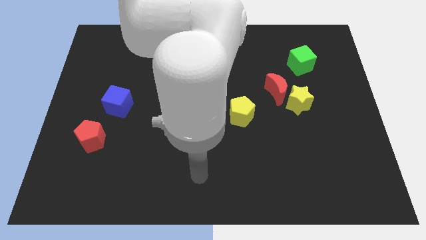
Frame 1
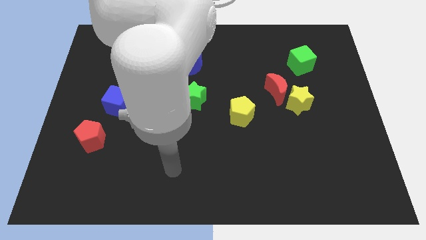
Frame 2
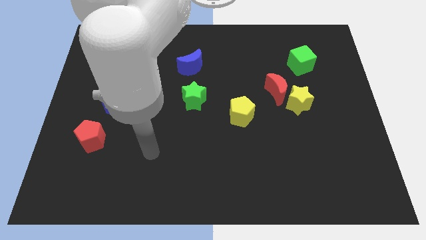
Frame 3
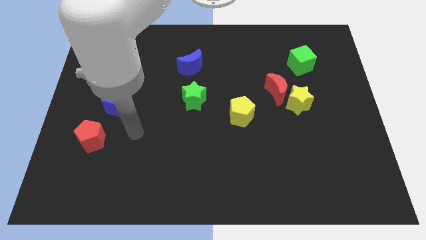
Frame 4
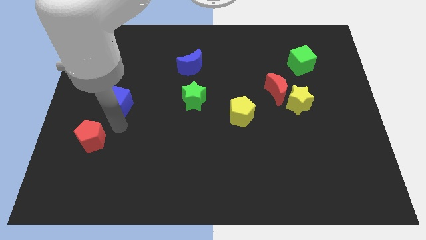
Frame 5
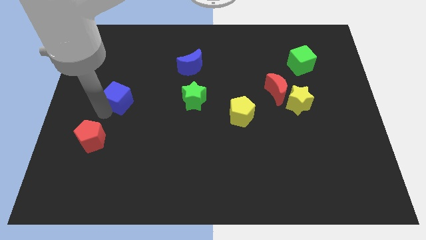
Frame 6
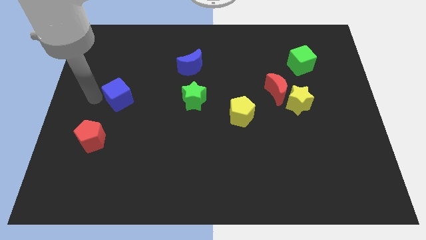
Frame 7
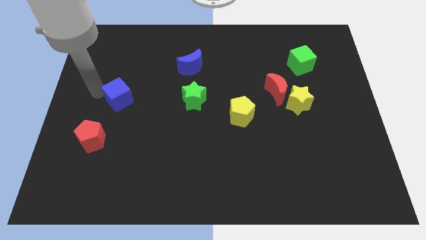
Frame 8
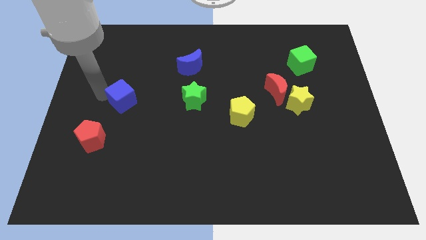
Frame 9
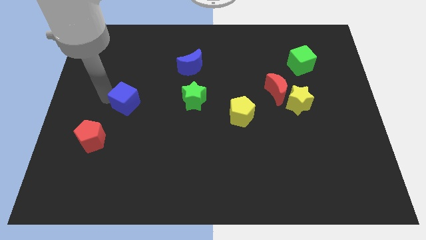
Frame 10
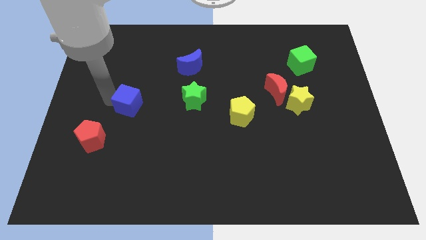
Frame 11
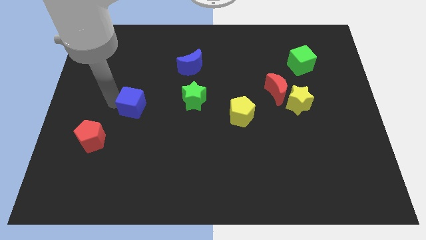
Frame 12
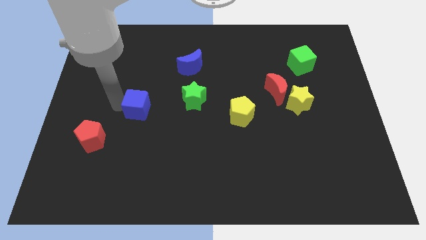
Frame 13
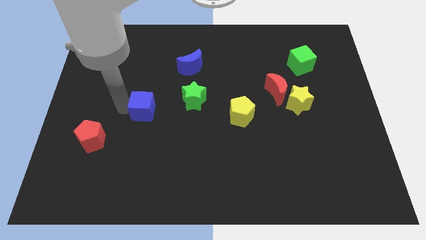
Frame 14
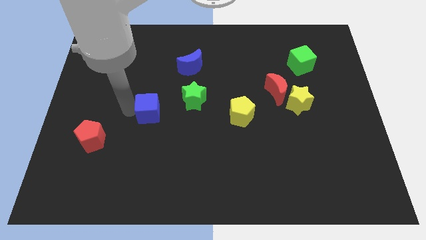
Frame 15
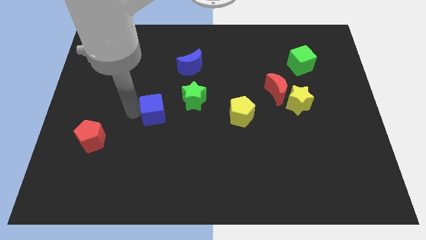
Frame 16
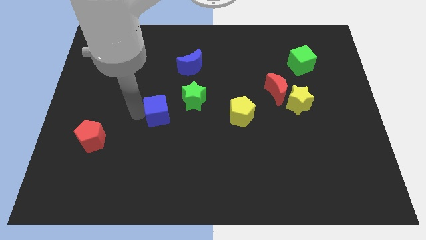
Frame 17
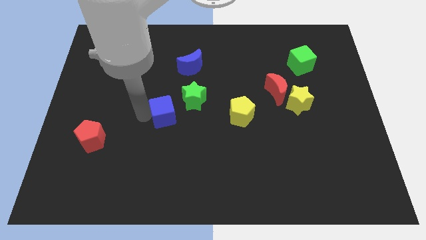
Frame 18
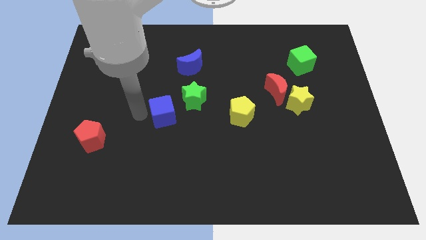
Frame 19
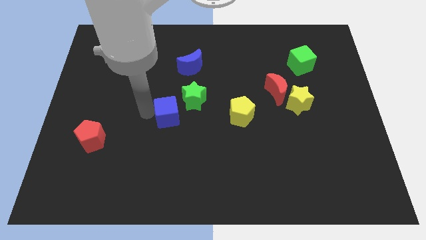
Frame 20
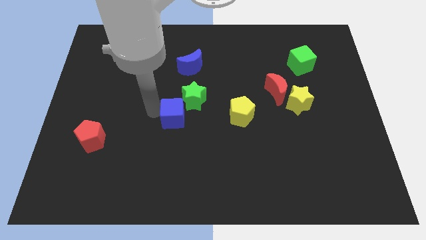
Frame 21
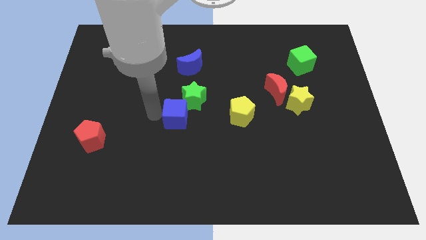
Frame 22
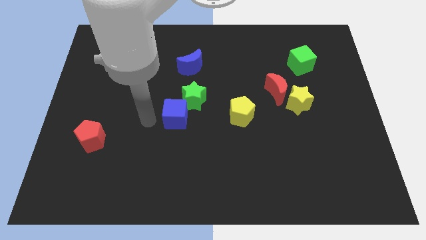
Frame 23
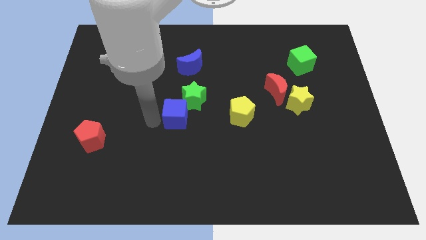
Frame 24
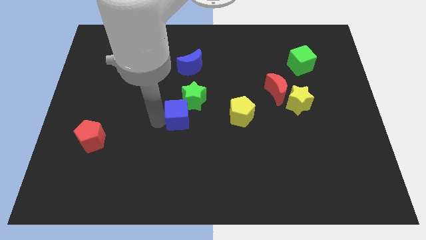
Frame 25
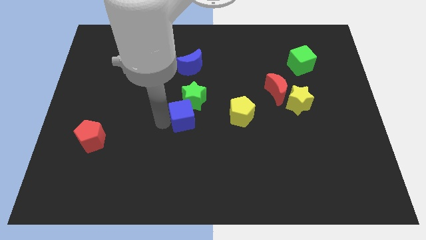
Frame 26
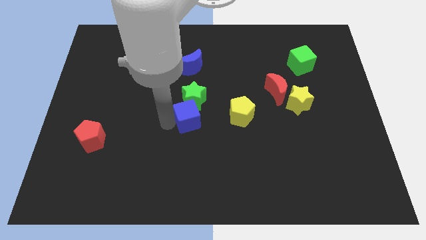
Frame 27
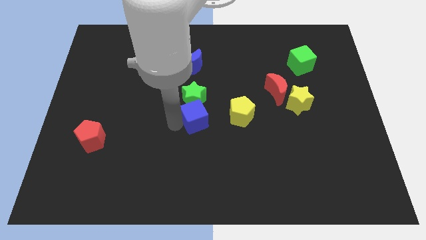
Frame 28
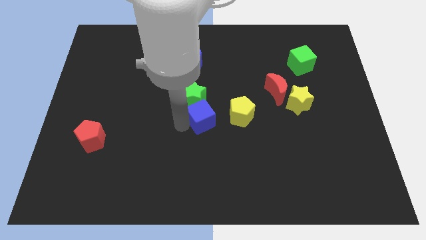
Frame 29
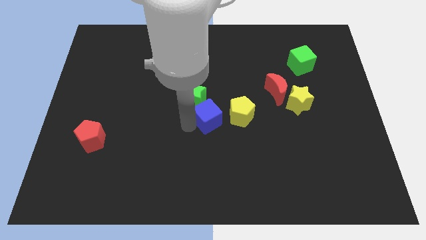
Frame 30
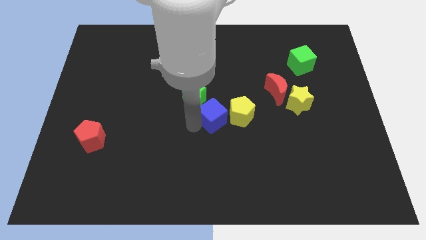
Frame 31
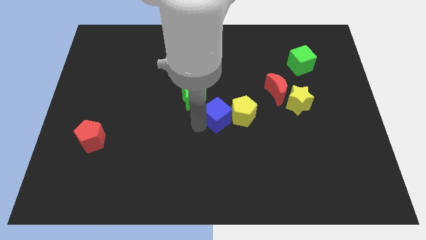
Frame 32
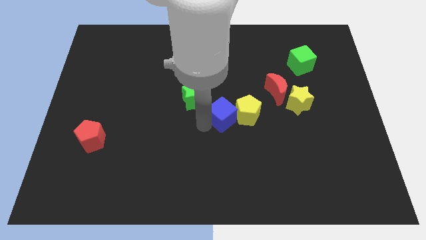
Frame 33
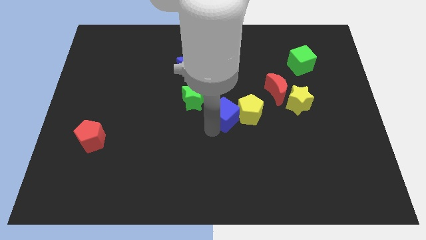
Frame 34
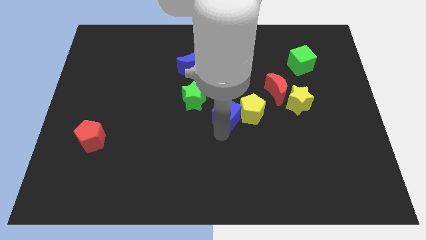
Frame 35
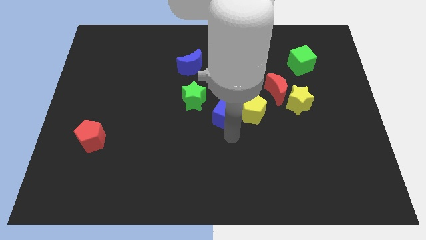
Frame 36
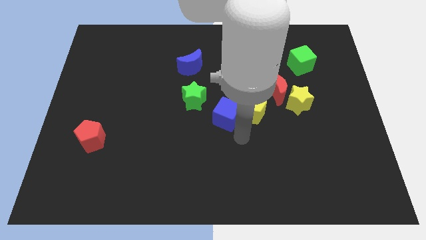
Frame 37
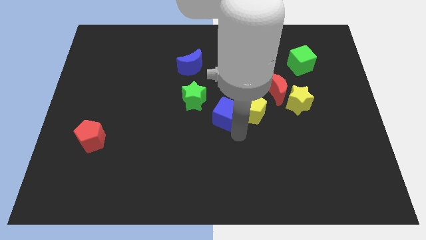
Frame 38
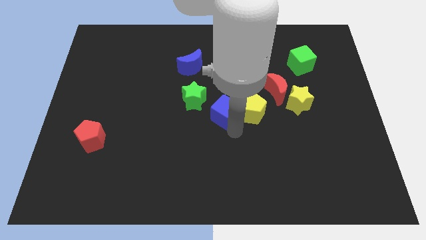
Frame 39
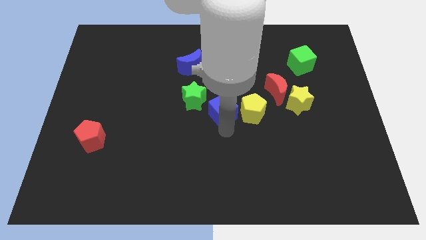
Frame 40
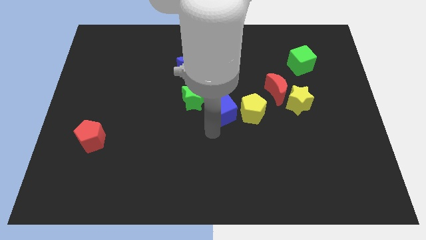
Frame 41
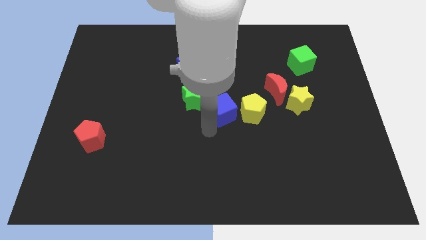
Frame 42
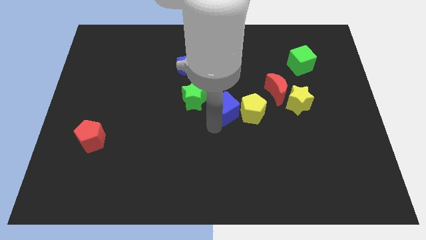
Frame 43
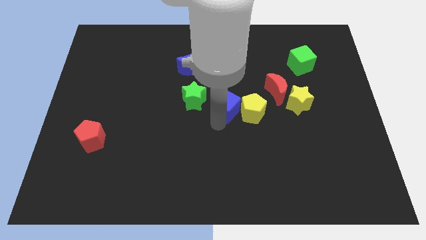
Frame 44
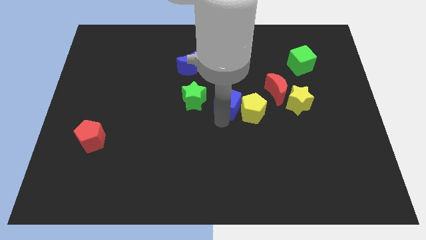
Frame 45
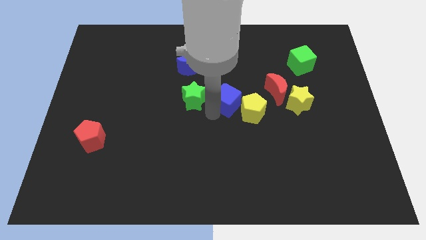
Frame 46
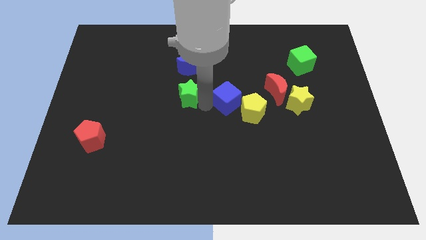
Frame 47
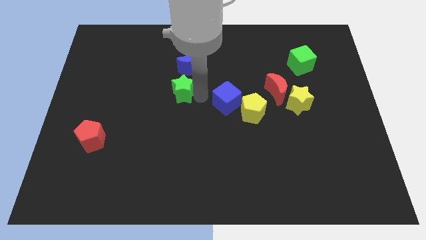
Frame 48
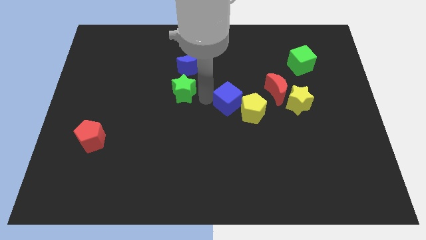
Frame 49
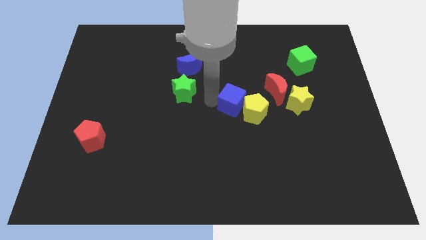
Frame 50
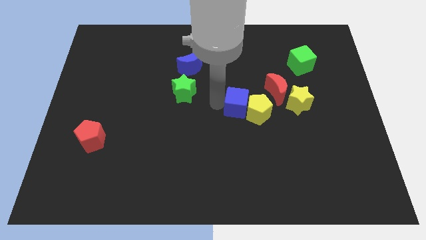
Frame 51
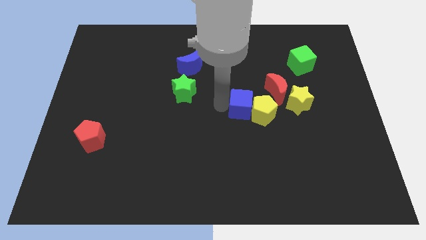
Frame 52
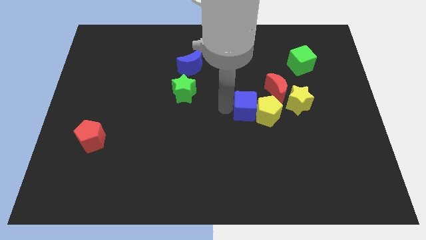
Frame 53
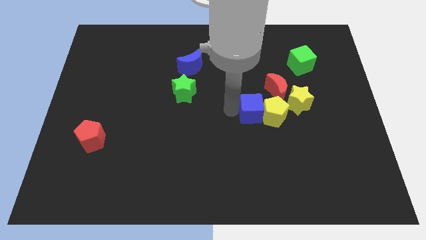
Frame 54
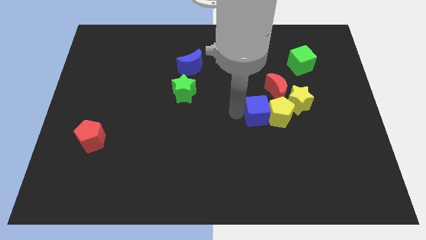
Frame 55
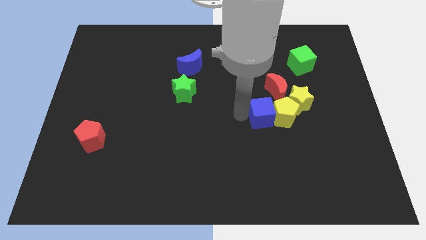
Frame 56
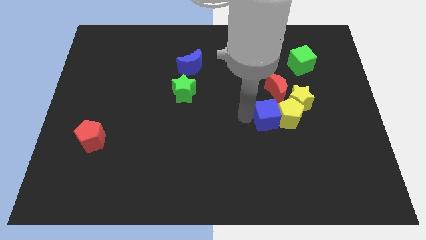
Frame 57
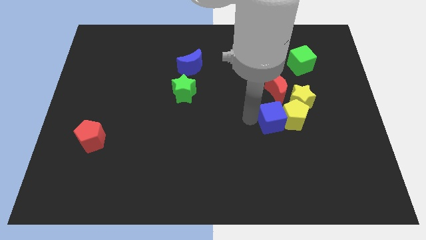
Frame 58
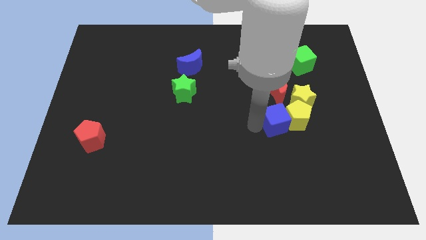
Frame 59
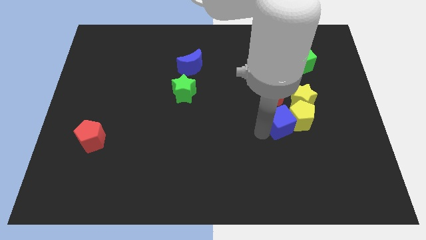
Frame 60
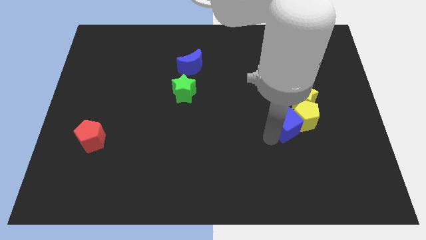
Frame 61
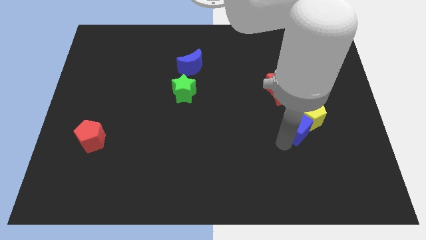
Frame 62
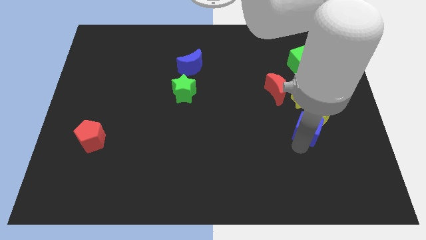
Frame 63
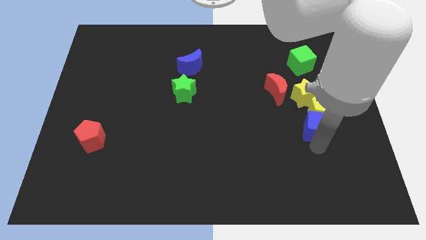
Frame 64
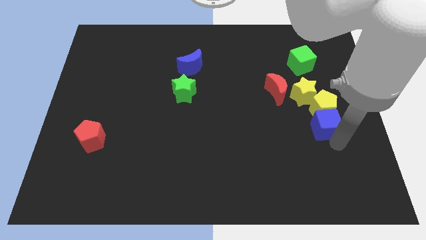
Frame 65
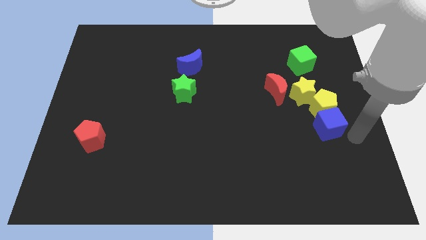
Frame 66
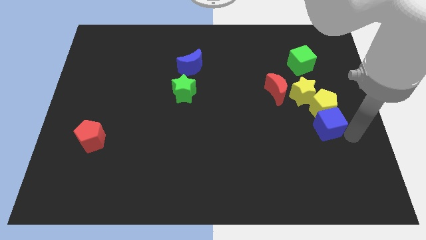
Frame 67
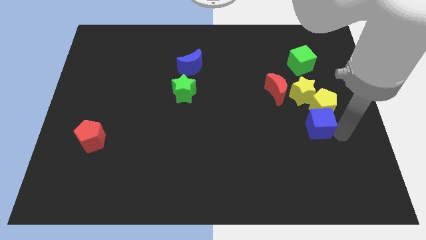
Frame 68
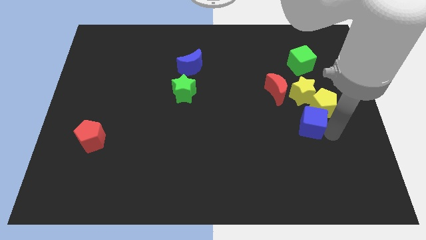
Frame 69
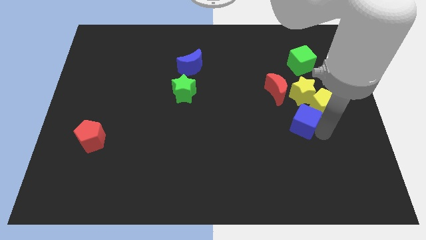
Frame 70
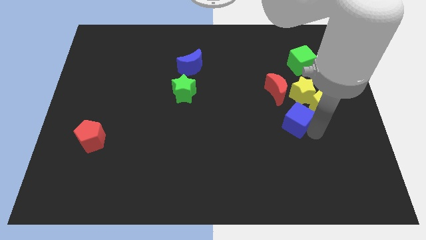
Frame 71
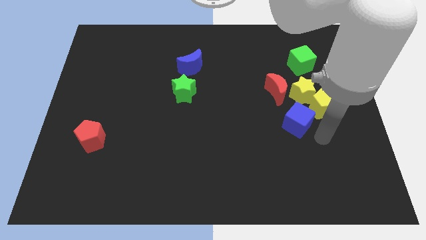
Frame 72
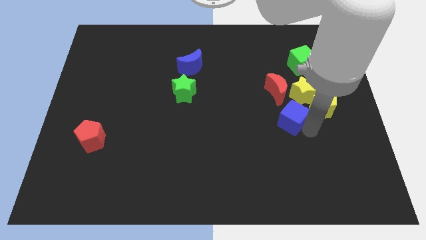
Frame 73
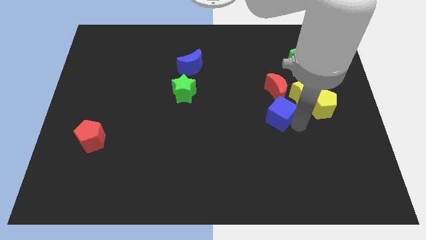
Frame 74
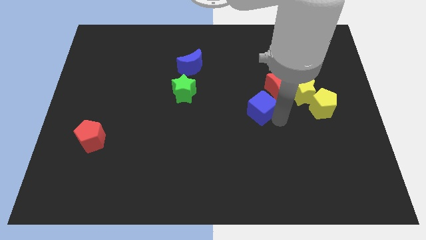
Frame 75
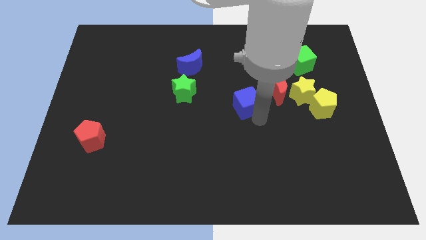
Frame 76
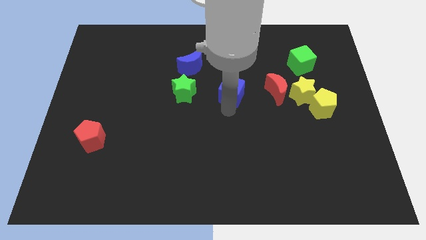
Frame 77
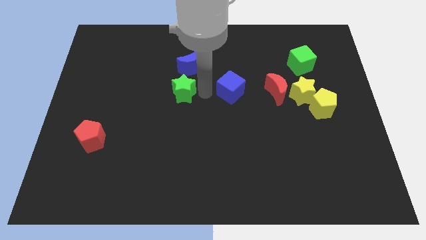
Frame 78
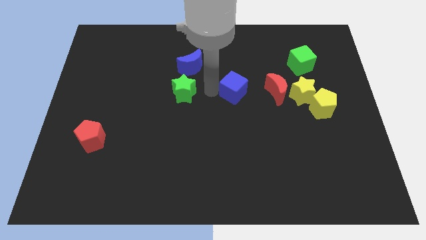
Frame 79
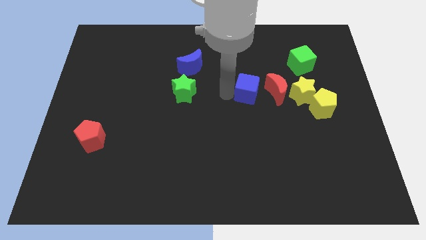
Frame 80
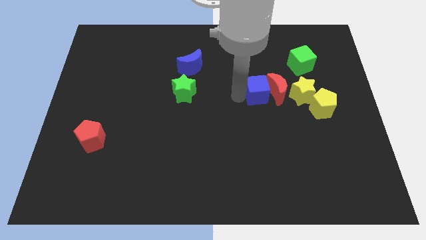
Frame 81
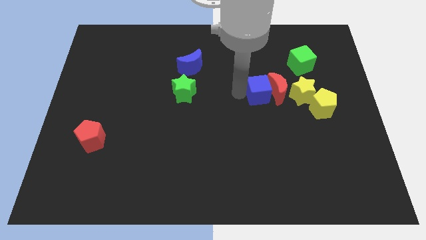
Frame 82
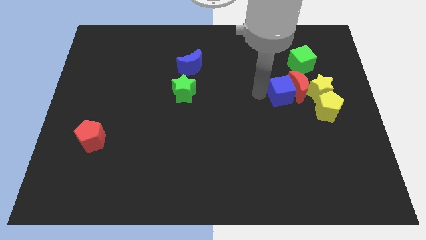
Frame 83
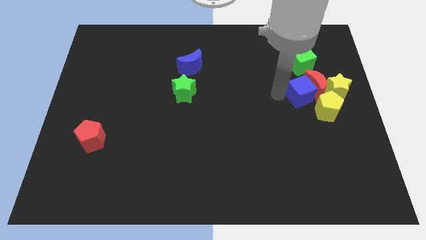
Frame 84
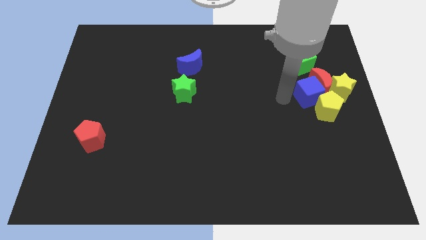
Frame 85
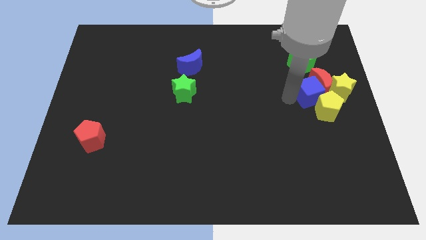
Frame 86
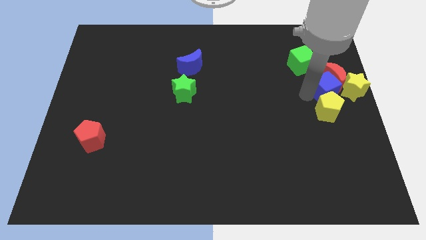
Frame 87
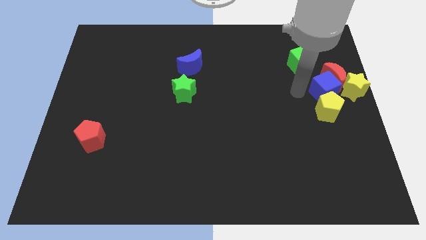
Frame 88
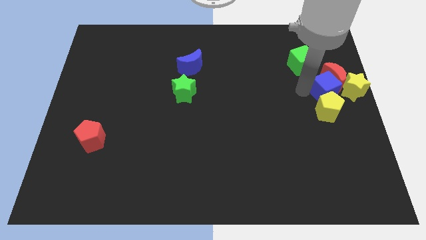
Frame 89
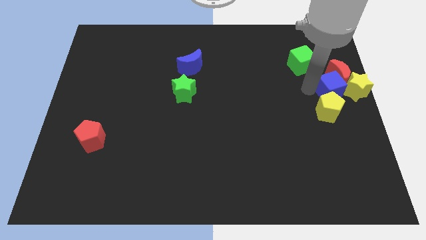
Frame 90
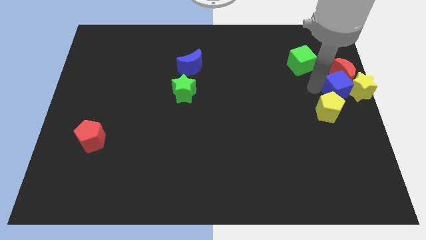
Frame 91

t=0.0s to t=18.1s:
put the blue cube to the yellow star
